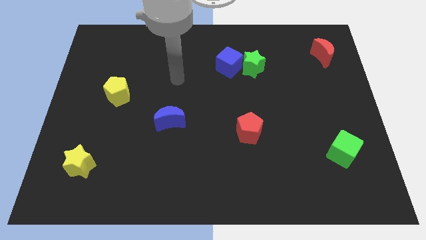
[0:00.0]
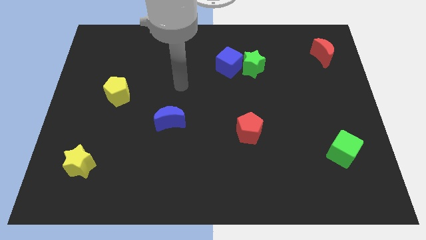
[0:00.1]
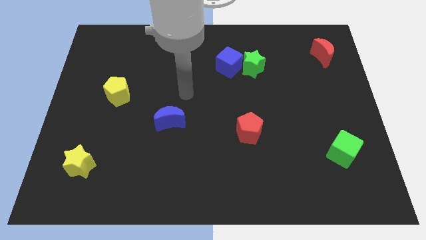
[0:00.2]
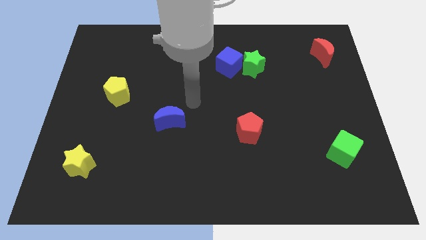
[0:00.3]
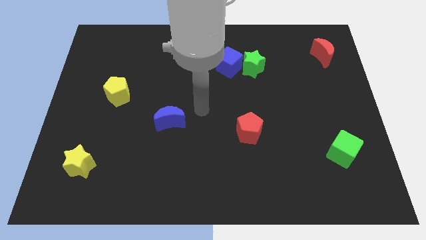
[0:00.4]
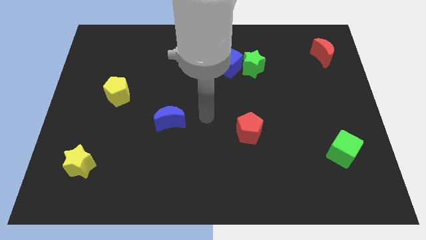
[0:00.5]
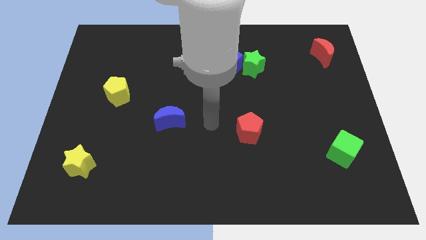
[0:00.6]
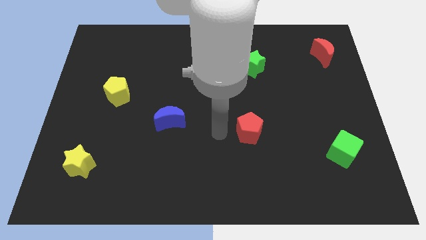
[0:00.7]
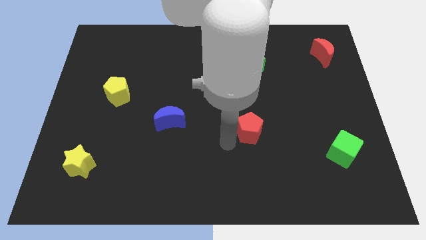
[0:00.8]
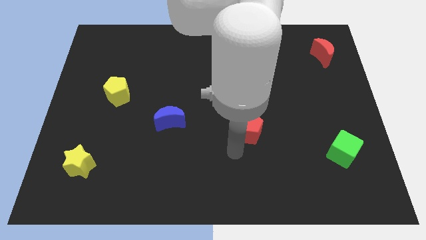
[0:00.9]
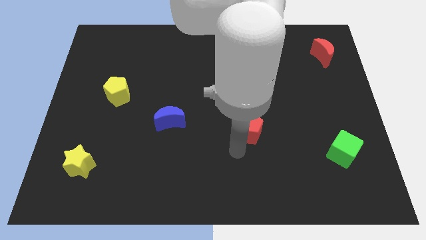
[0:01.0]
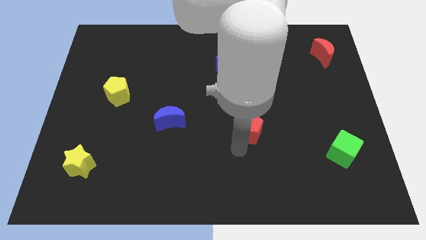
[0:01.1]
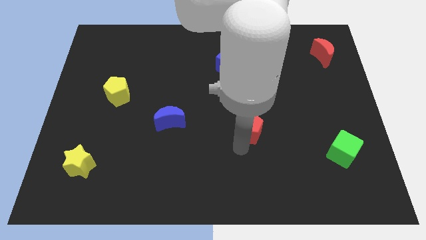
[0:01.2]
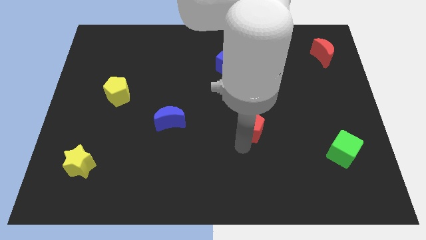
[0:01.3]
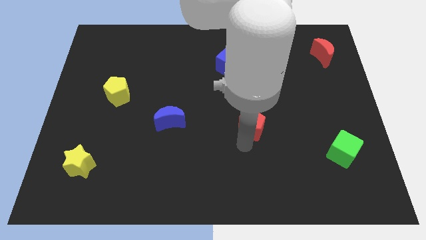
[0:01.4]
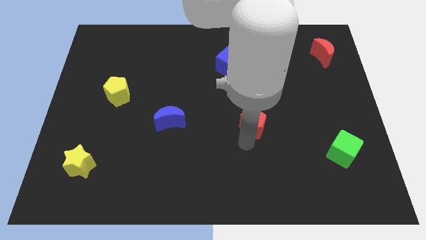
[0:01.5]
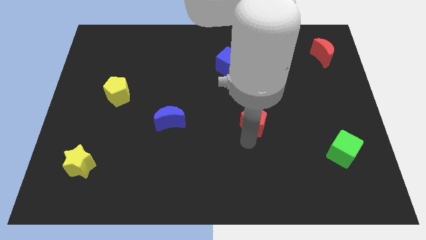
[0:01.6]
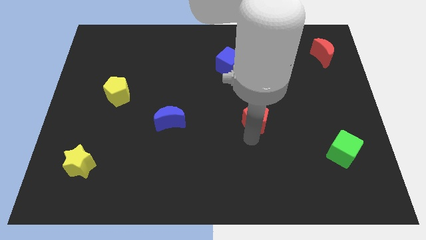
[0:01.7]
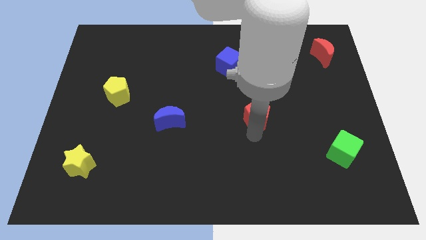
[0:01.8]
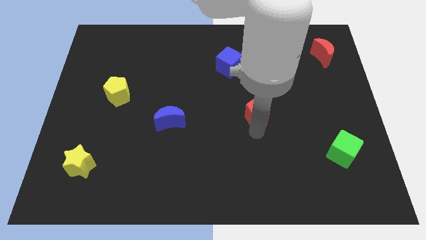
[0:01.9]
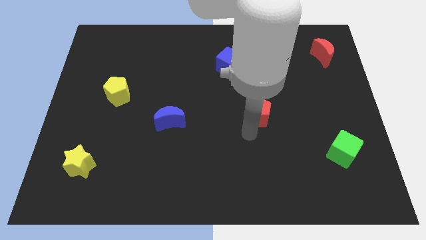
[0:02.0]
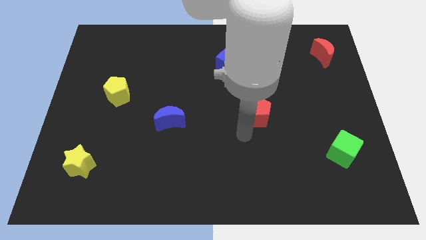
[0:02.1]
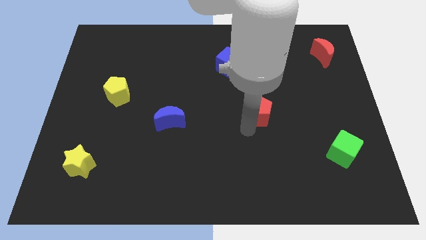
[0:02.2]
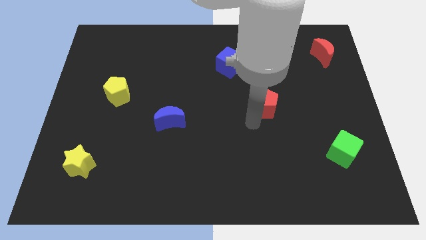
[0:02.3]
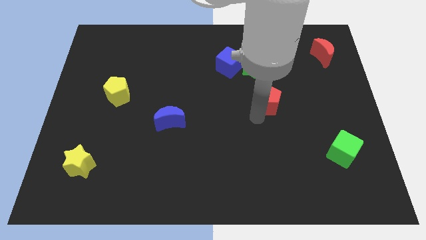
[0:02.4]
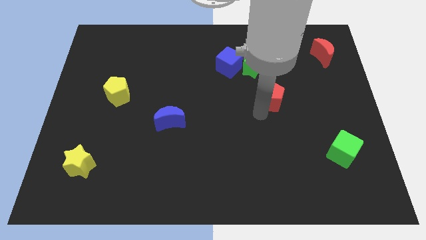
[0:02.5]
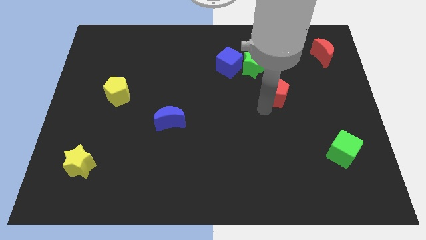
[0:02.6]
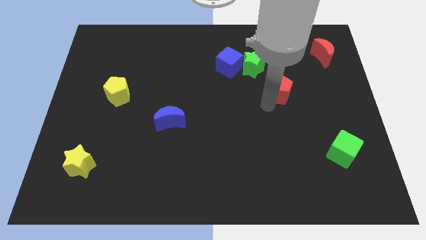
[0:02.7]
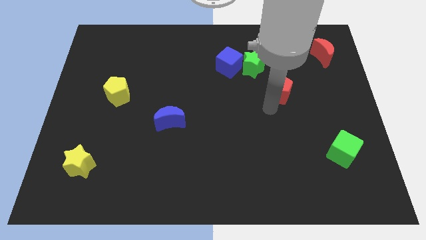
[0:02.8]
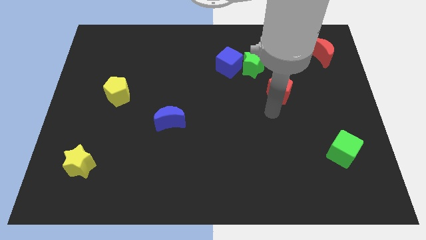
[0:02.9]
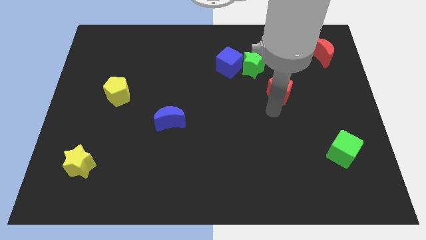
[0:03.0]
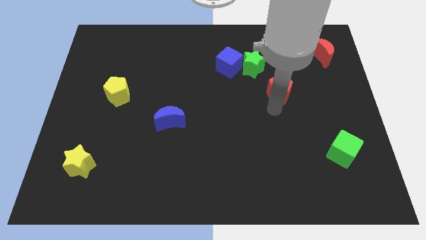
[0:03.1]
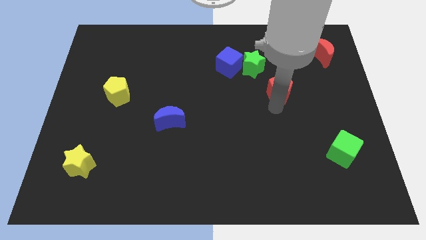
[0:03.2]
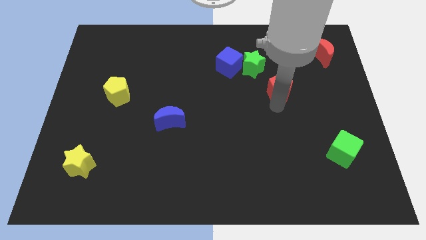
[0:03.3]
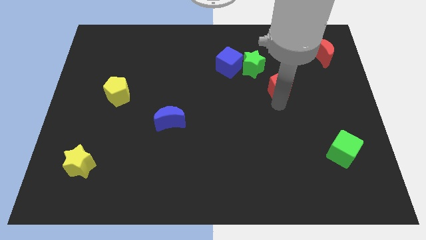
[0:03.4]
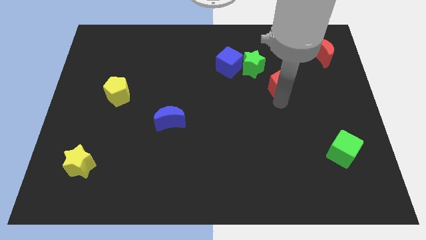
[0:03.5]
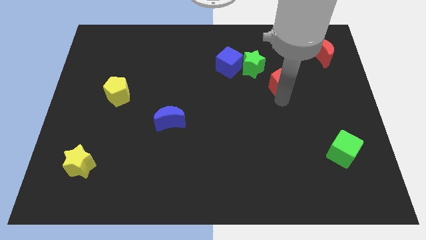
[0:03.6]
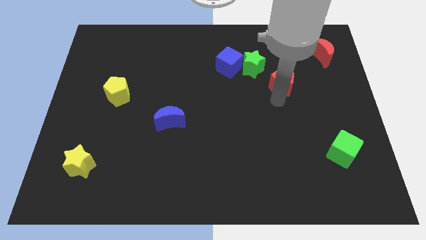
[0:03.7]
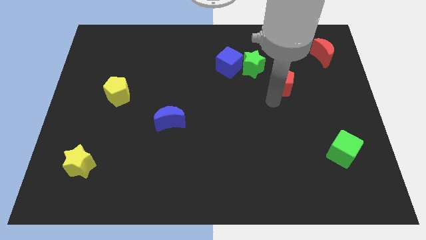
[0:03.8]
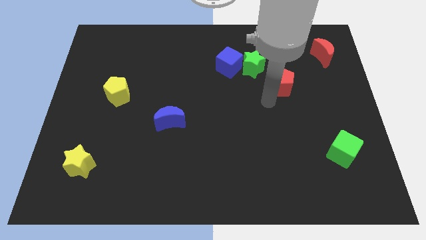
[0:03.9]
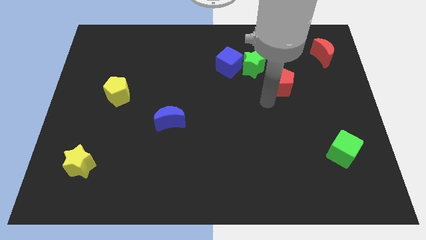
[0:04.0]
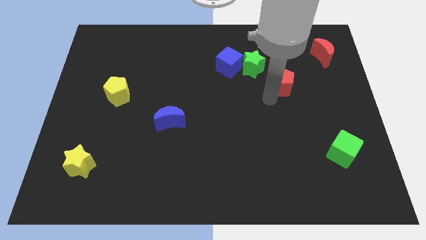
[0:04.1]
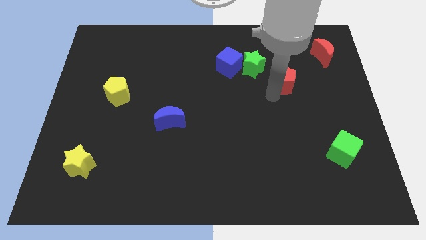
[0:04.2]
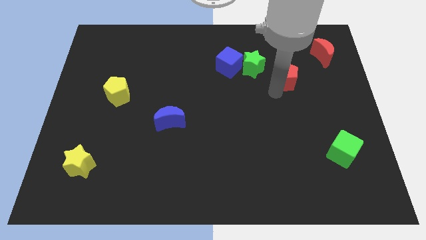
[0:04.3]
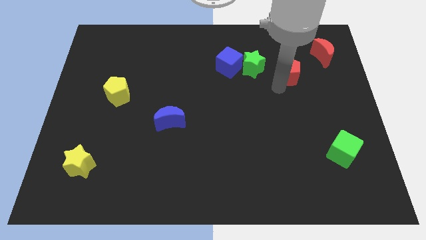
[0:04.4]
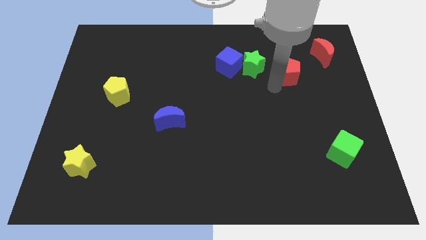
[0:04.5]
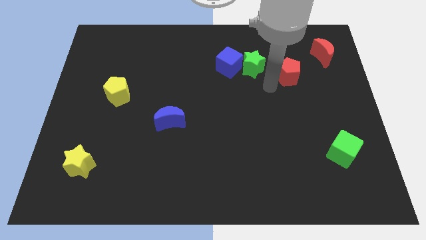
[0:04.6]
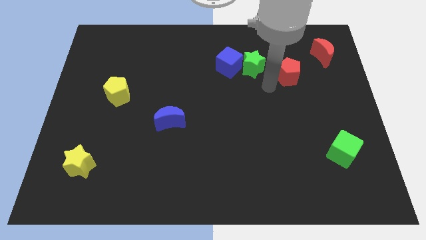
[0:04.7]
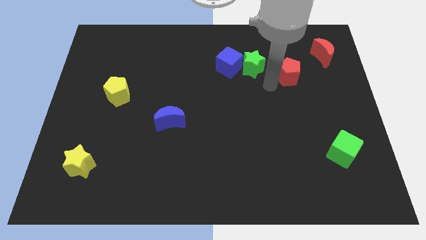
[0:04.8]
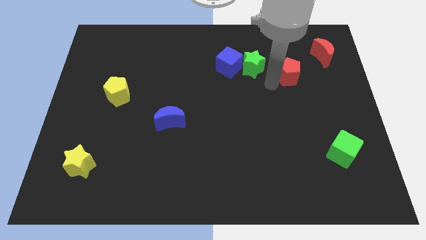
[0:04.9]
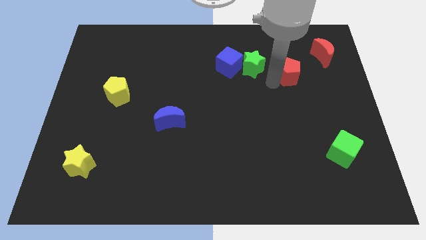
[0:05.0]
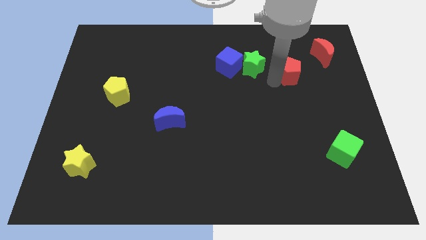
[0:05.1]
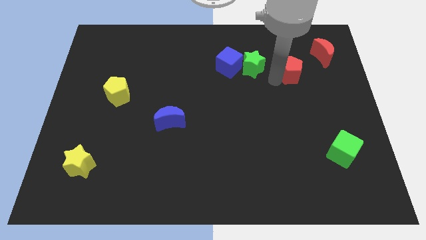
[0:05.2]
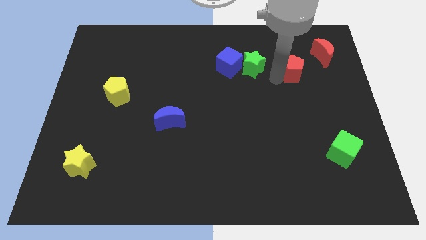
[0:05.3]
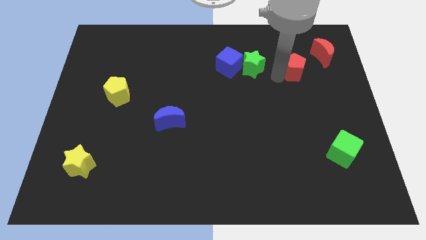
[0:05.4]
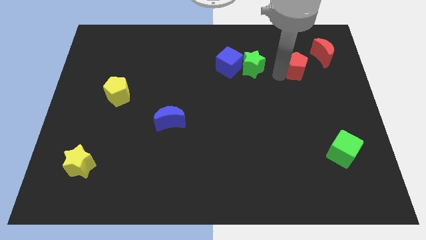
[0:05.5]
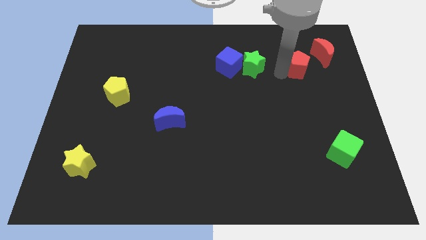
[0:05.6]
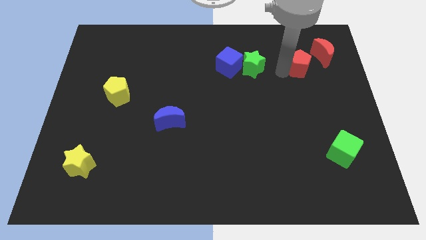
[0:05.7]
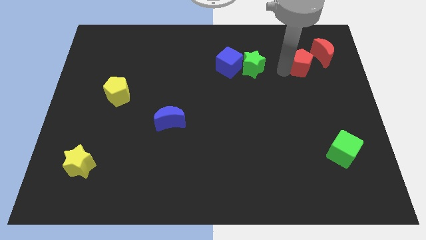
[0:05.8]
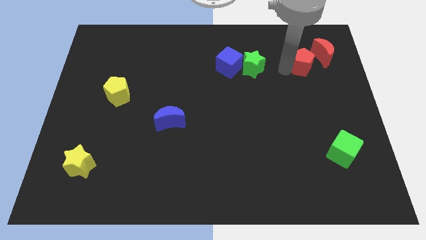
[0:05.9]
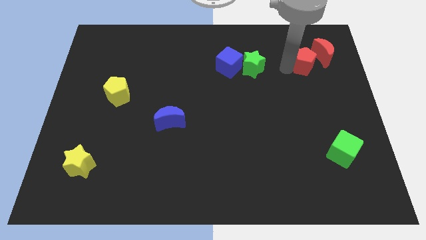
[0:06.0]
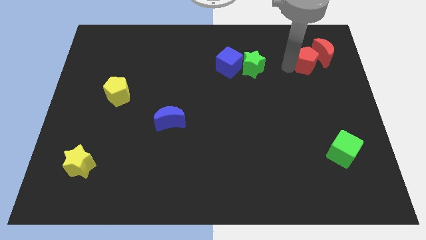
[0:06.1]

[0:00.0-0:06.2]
put the red pentagon to the red moon

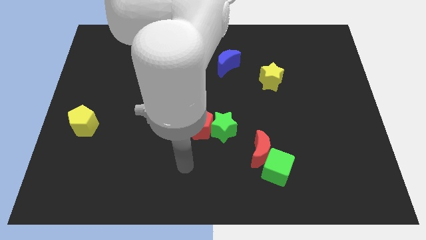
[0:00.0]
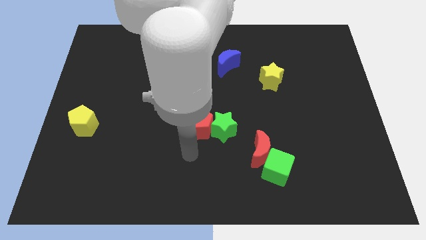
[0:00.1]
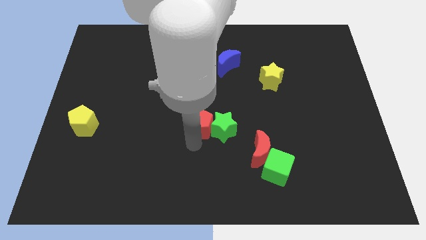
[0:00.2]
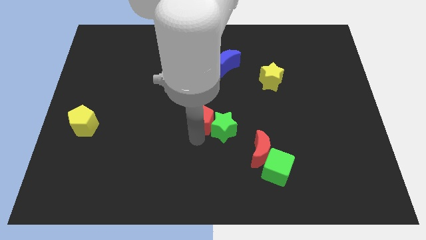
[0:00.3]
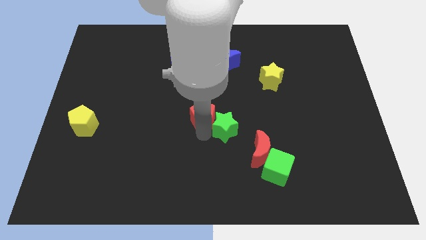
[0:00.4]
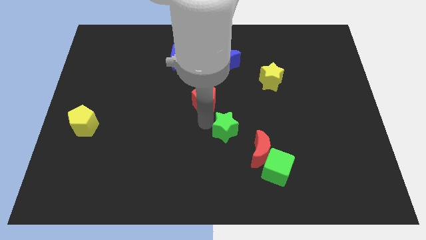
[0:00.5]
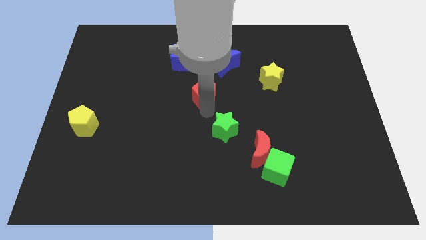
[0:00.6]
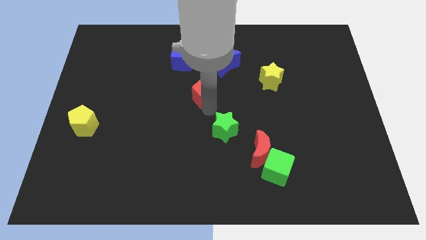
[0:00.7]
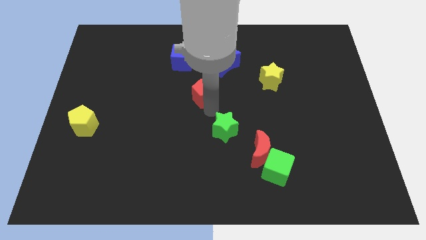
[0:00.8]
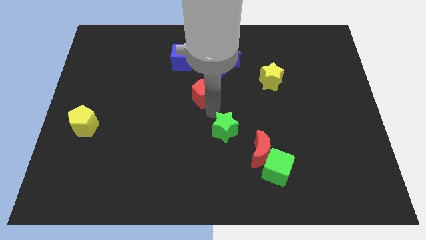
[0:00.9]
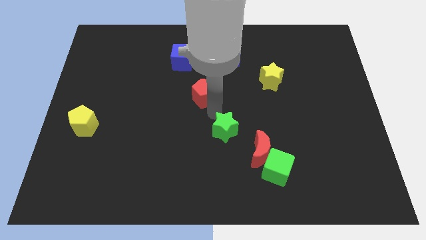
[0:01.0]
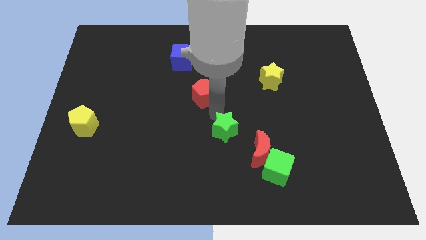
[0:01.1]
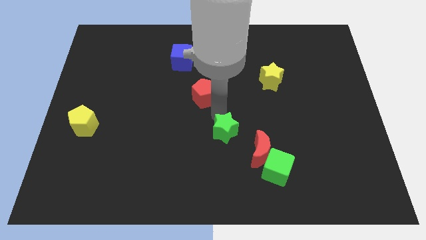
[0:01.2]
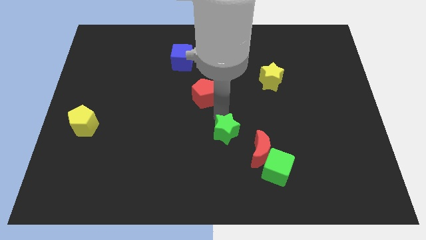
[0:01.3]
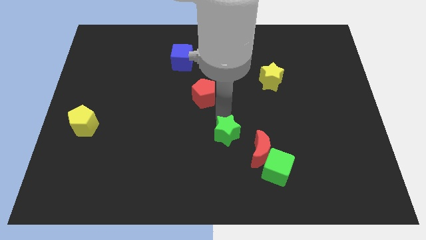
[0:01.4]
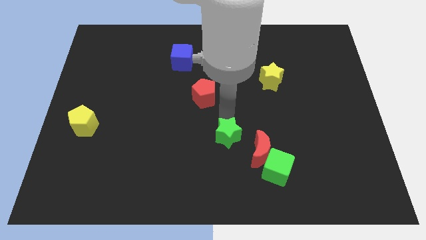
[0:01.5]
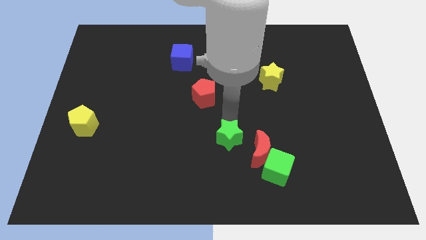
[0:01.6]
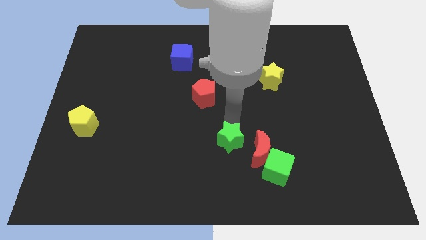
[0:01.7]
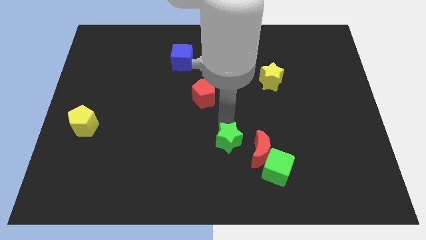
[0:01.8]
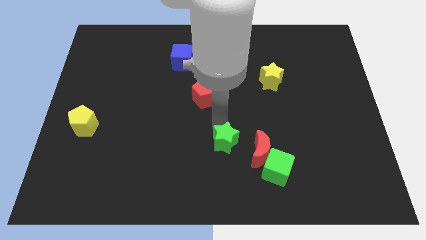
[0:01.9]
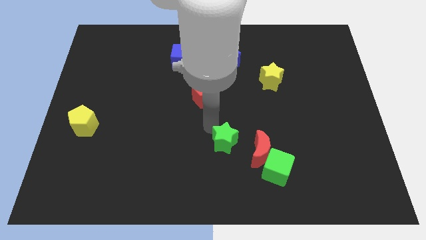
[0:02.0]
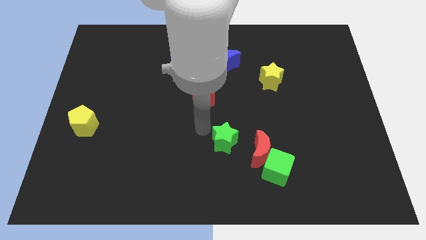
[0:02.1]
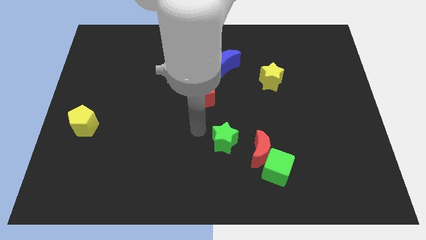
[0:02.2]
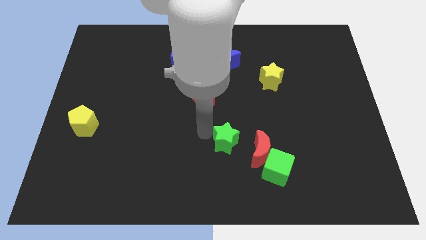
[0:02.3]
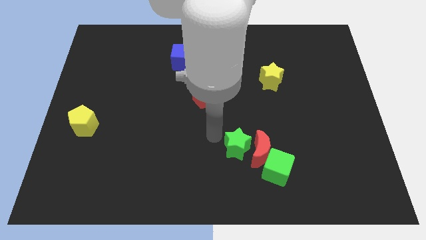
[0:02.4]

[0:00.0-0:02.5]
slide the green star next to the red moon
